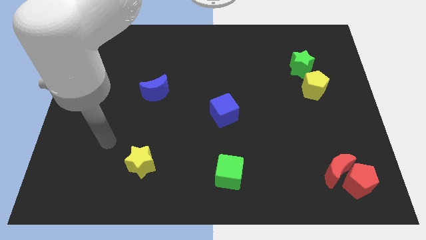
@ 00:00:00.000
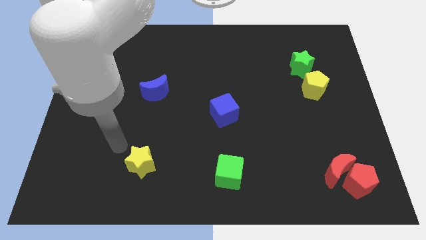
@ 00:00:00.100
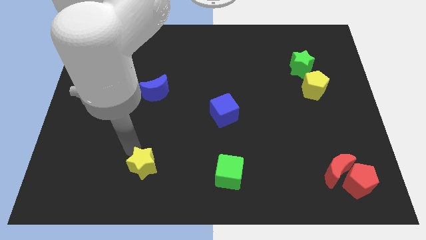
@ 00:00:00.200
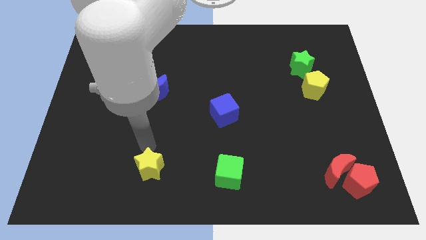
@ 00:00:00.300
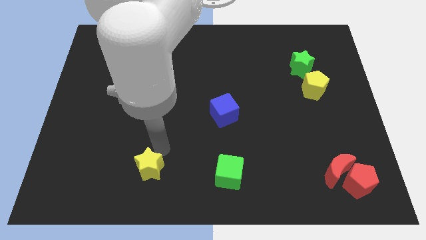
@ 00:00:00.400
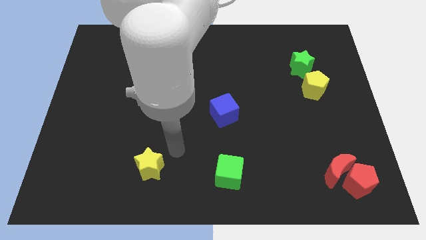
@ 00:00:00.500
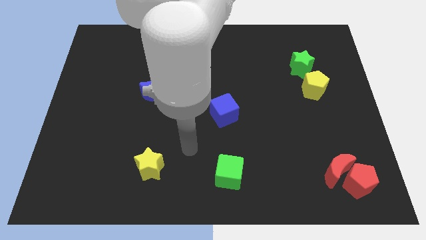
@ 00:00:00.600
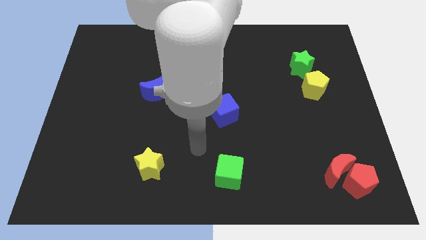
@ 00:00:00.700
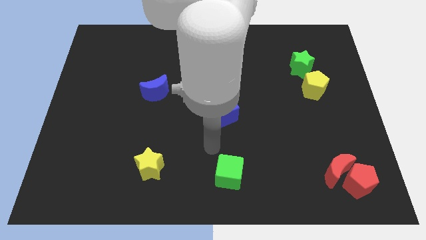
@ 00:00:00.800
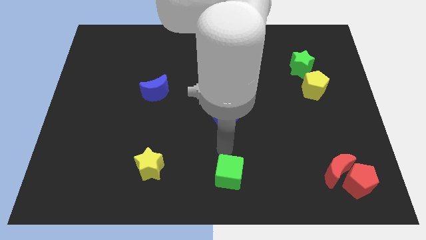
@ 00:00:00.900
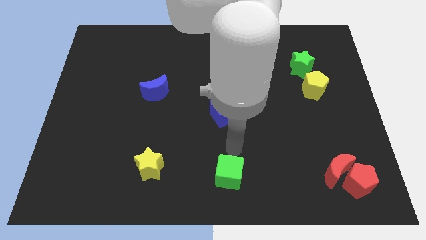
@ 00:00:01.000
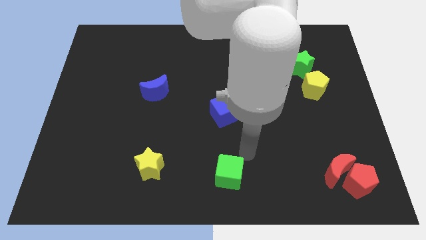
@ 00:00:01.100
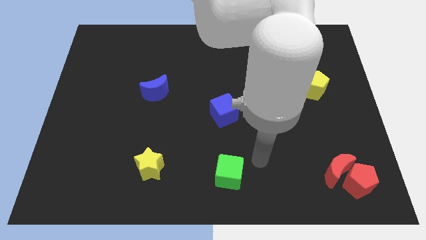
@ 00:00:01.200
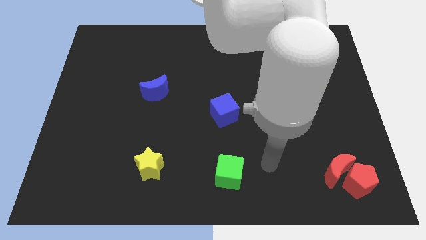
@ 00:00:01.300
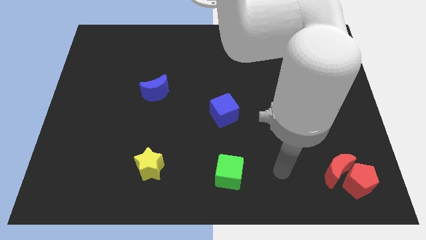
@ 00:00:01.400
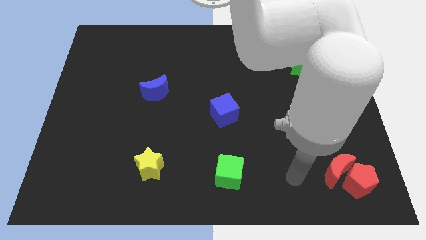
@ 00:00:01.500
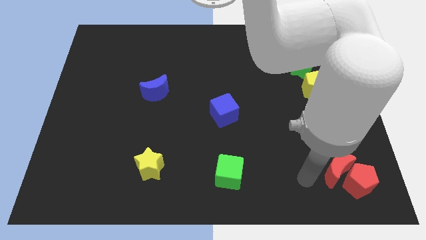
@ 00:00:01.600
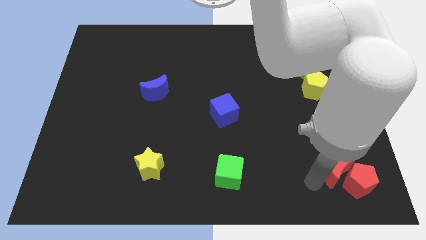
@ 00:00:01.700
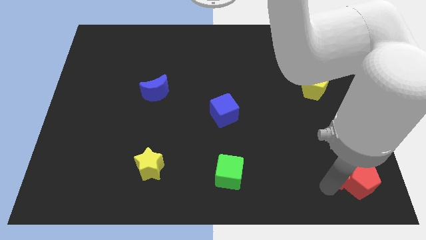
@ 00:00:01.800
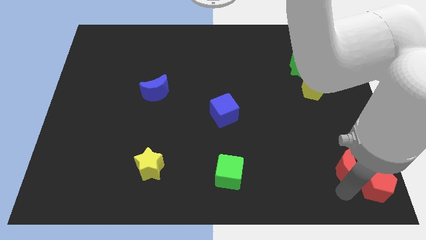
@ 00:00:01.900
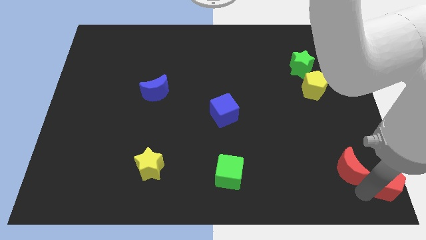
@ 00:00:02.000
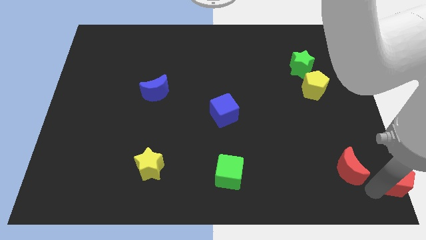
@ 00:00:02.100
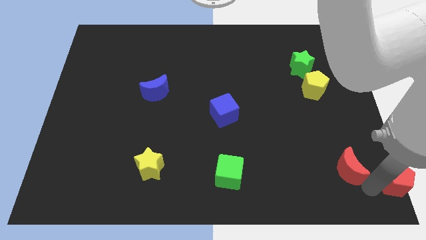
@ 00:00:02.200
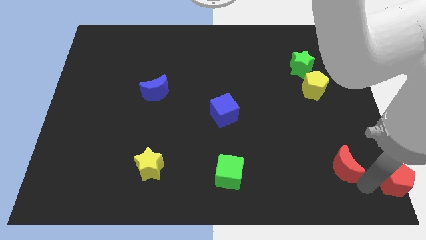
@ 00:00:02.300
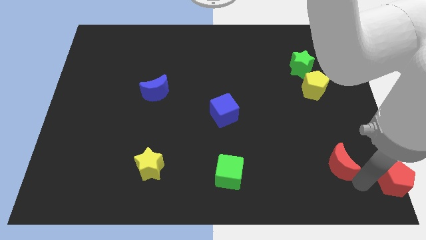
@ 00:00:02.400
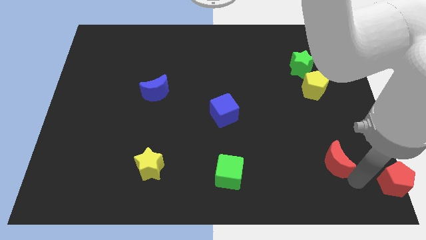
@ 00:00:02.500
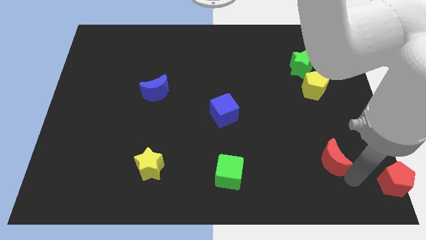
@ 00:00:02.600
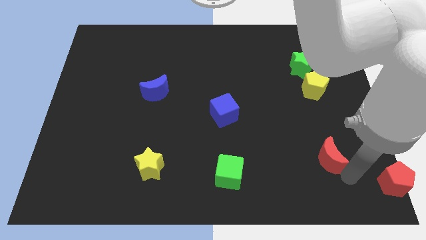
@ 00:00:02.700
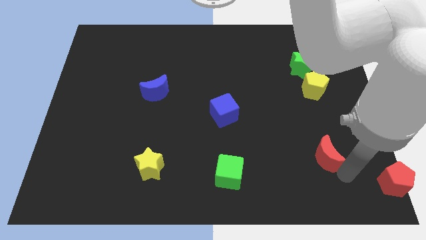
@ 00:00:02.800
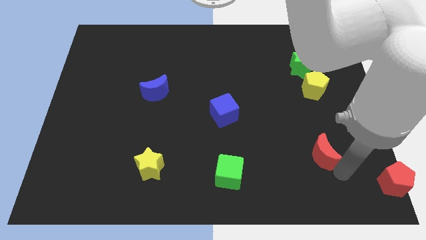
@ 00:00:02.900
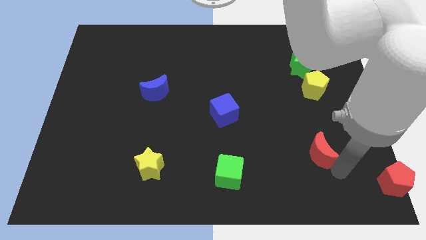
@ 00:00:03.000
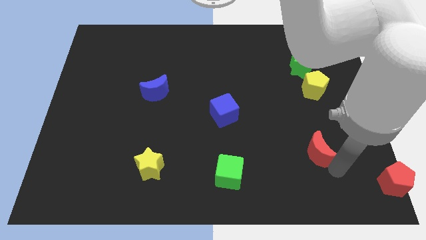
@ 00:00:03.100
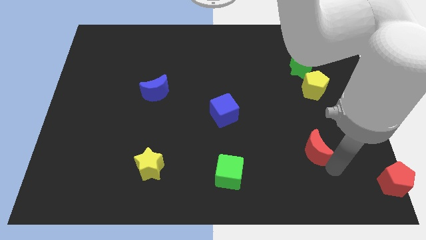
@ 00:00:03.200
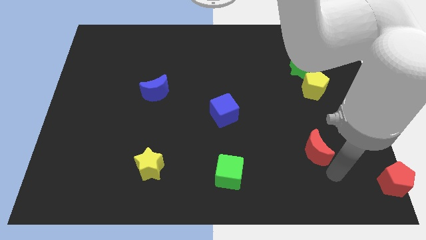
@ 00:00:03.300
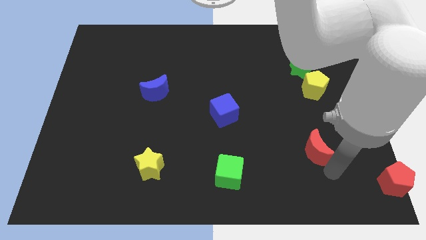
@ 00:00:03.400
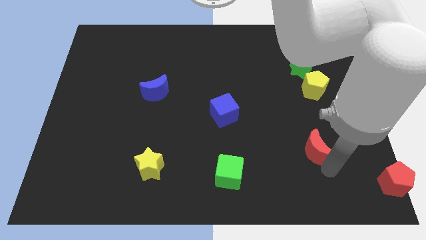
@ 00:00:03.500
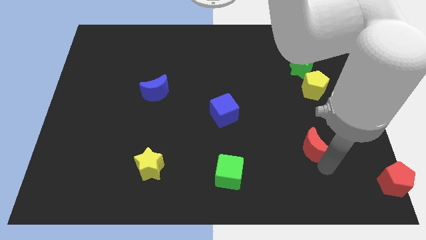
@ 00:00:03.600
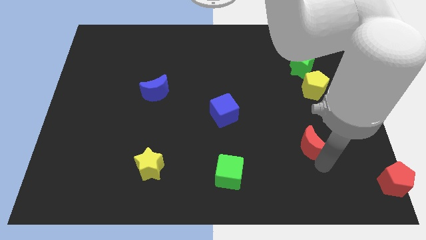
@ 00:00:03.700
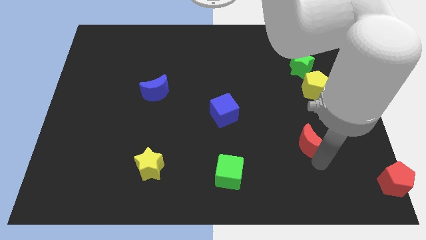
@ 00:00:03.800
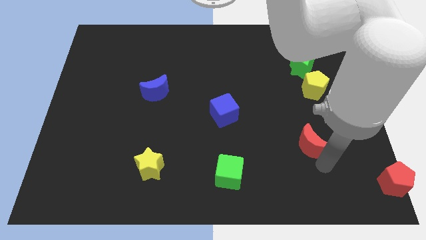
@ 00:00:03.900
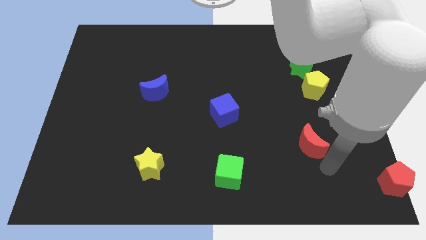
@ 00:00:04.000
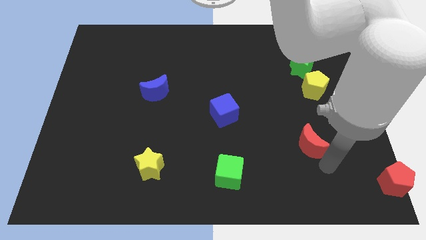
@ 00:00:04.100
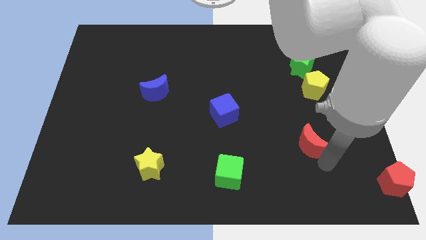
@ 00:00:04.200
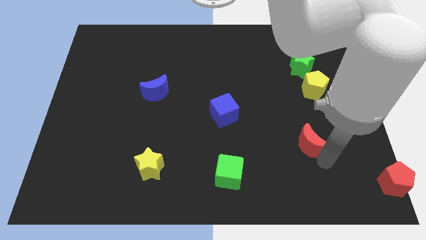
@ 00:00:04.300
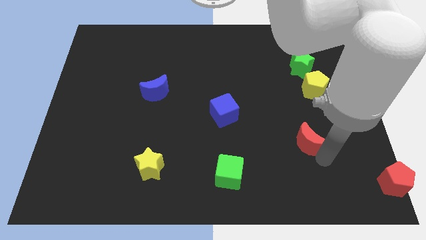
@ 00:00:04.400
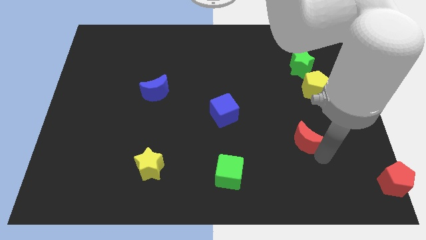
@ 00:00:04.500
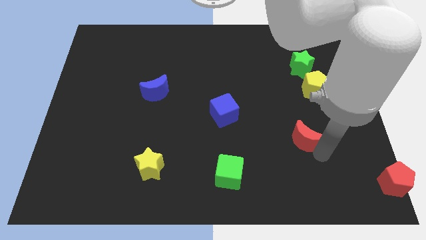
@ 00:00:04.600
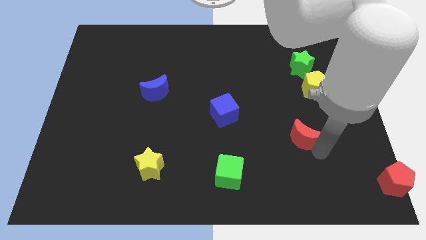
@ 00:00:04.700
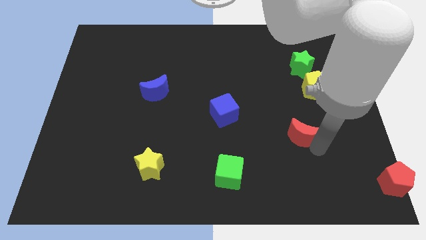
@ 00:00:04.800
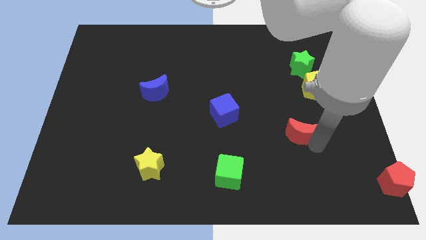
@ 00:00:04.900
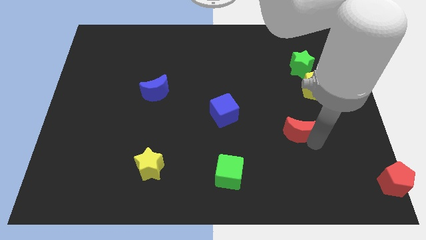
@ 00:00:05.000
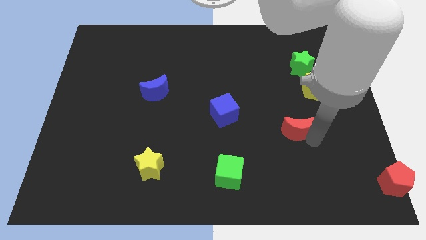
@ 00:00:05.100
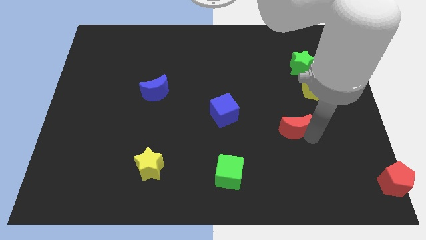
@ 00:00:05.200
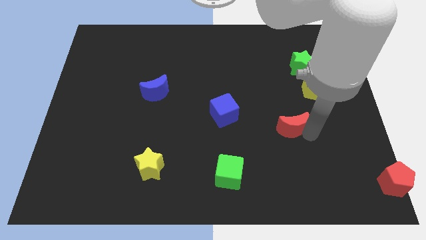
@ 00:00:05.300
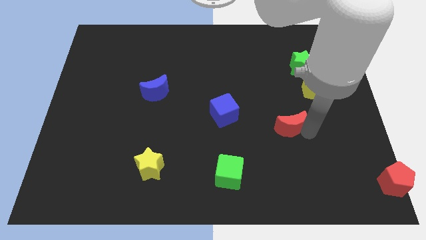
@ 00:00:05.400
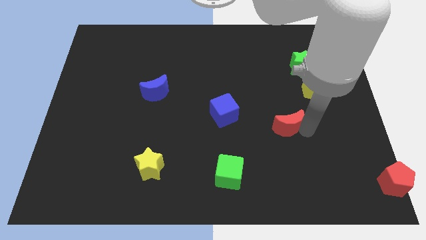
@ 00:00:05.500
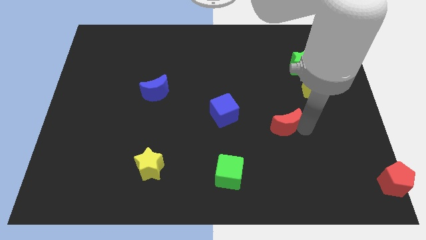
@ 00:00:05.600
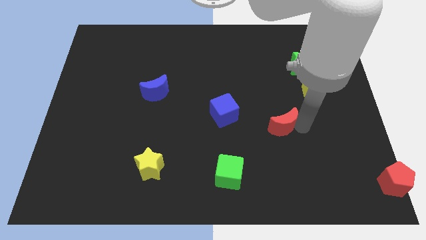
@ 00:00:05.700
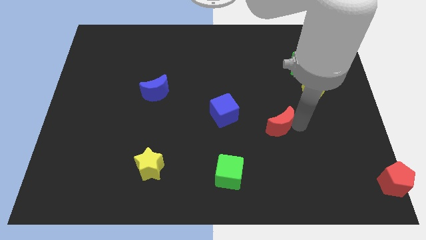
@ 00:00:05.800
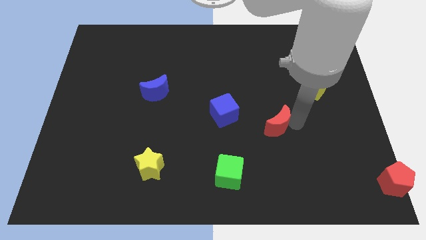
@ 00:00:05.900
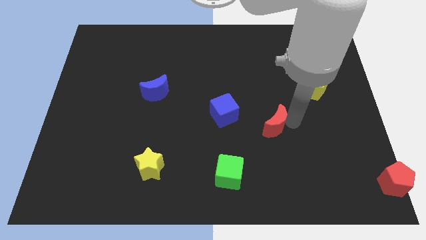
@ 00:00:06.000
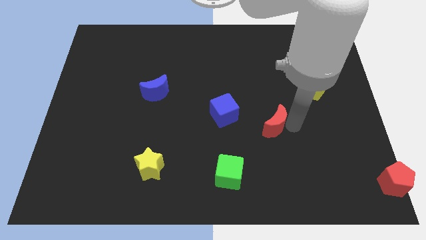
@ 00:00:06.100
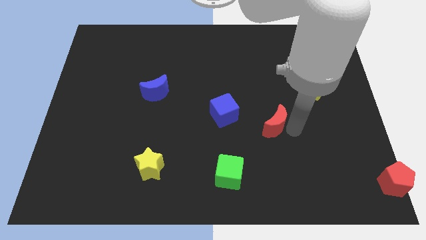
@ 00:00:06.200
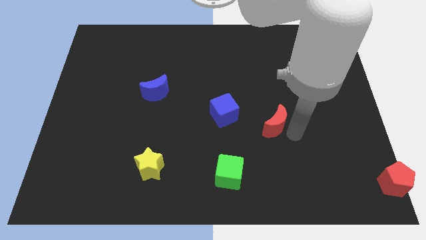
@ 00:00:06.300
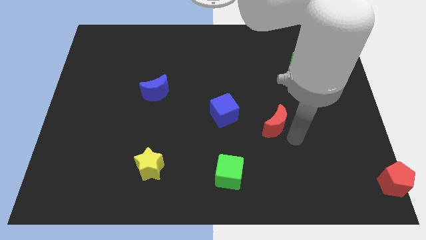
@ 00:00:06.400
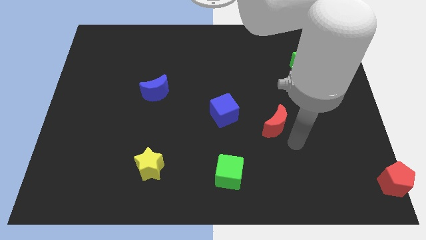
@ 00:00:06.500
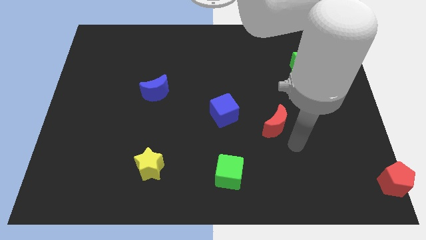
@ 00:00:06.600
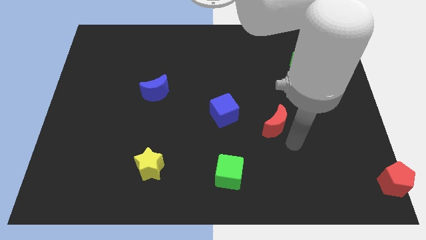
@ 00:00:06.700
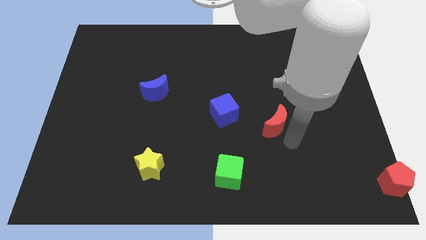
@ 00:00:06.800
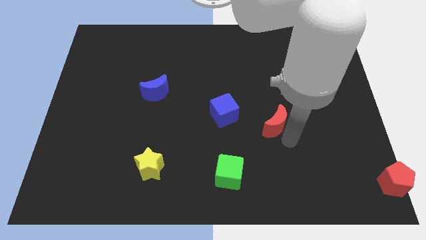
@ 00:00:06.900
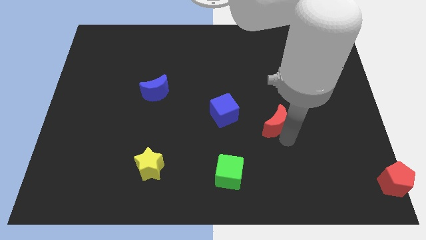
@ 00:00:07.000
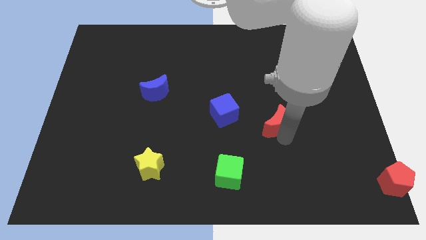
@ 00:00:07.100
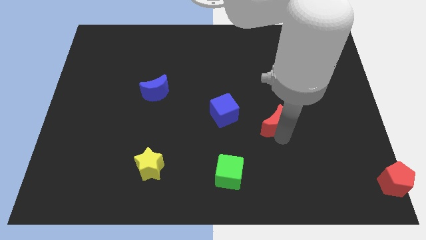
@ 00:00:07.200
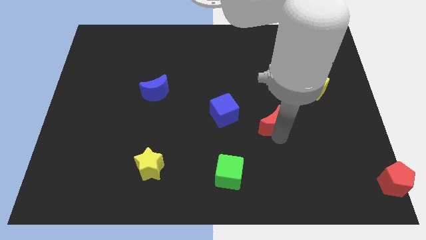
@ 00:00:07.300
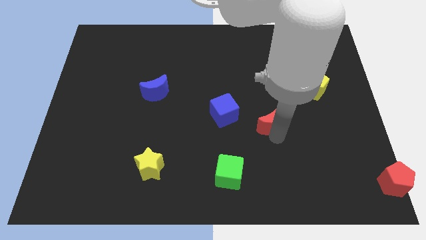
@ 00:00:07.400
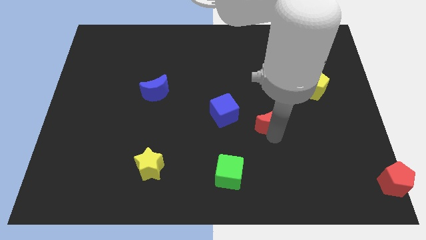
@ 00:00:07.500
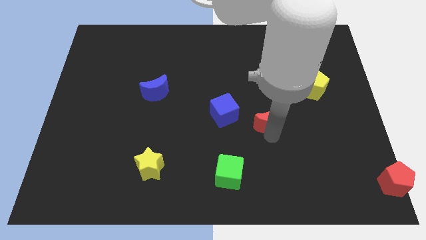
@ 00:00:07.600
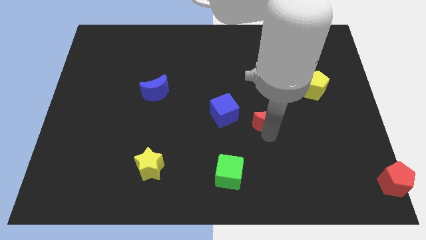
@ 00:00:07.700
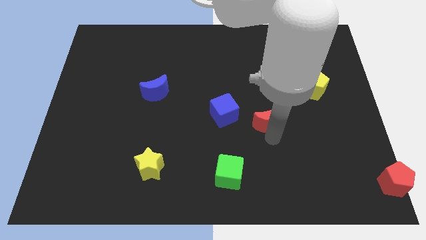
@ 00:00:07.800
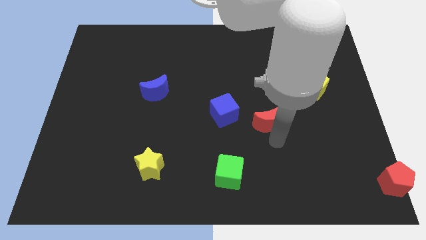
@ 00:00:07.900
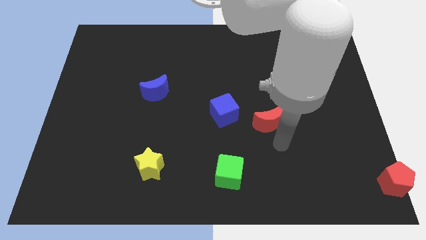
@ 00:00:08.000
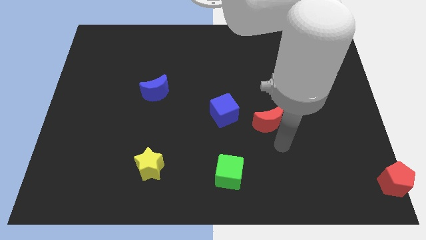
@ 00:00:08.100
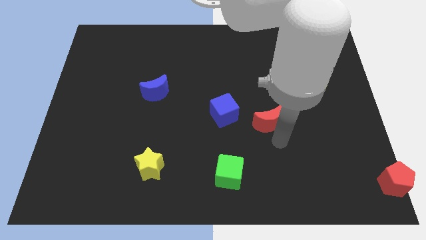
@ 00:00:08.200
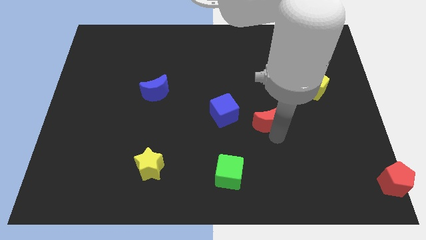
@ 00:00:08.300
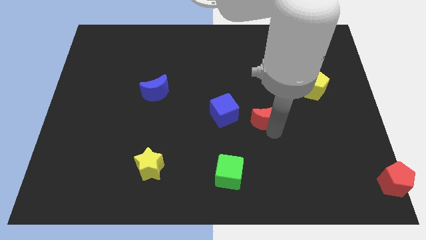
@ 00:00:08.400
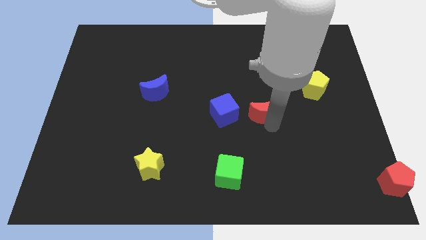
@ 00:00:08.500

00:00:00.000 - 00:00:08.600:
put the red moon to the center of the board
